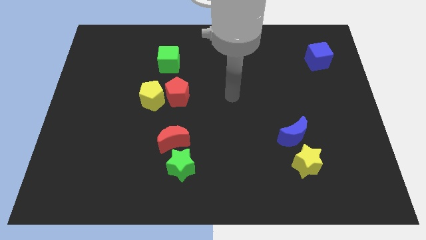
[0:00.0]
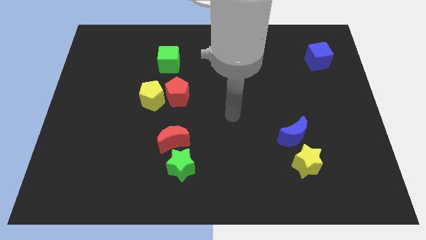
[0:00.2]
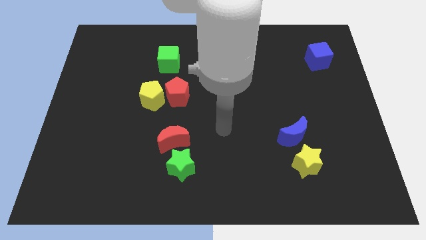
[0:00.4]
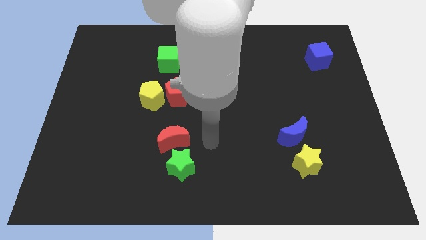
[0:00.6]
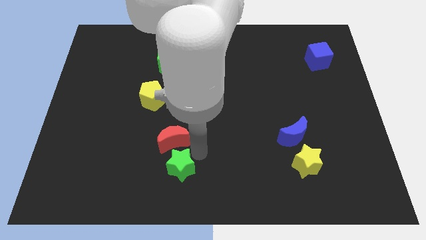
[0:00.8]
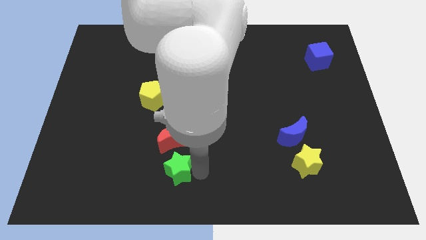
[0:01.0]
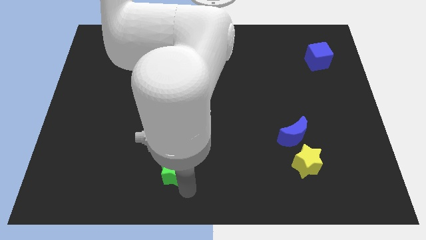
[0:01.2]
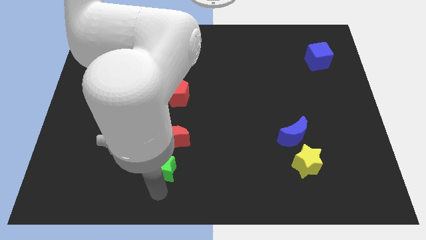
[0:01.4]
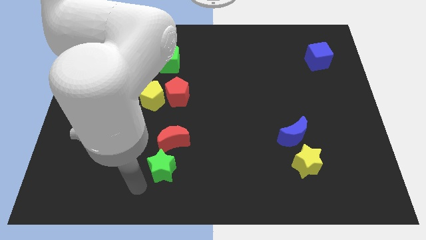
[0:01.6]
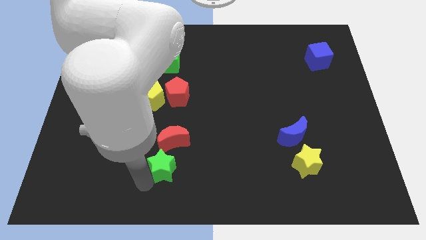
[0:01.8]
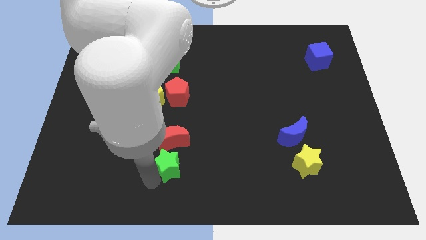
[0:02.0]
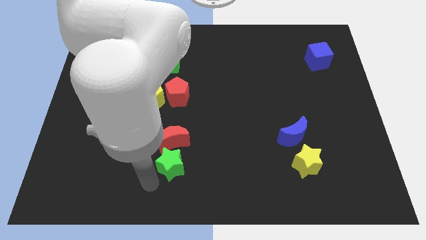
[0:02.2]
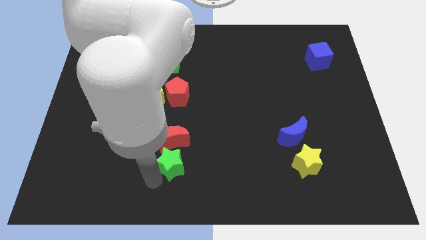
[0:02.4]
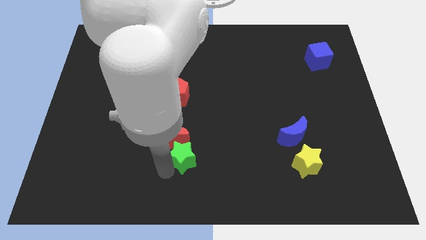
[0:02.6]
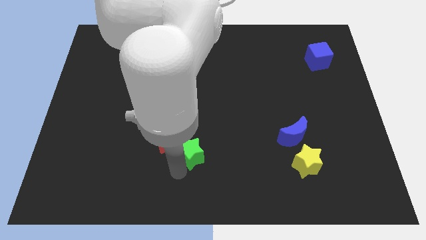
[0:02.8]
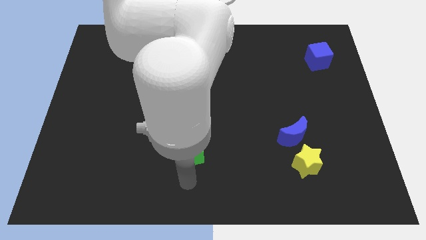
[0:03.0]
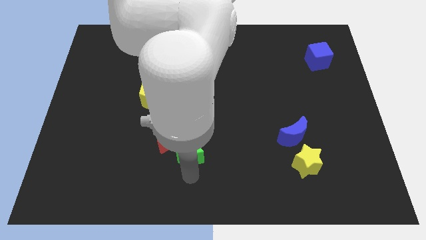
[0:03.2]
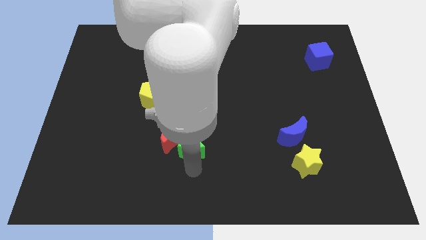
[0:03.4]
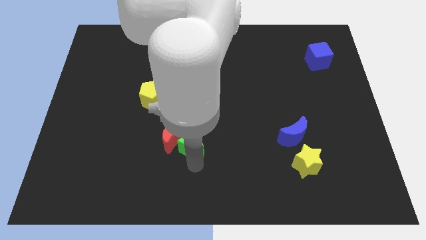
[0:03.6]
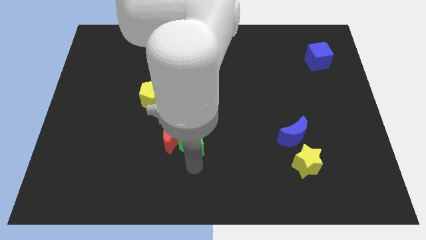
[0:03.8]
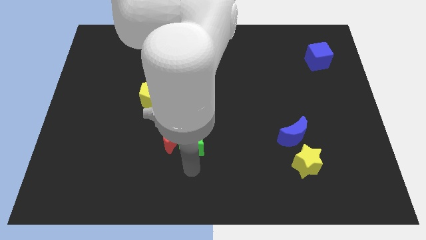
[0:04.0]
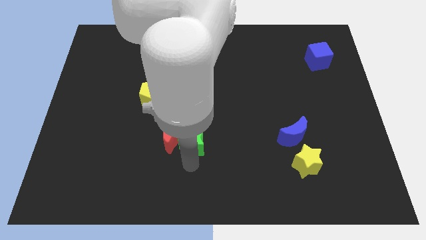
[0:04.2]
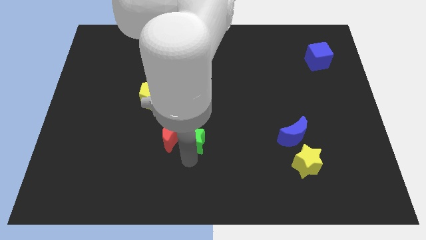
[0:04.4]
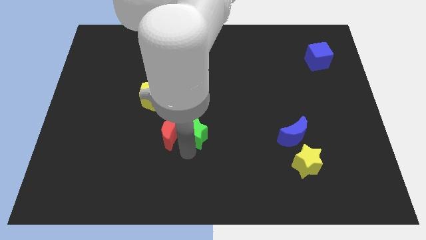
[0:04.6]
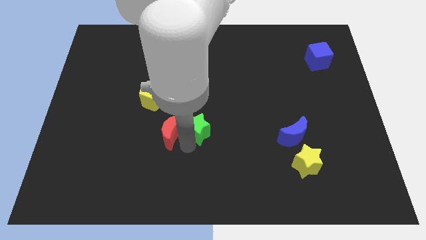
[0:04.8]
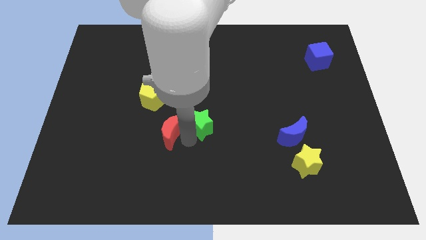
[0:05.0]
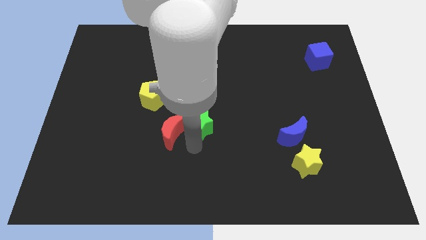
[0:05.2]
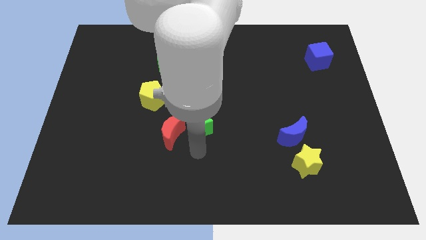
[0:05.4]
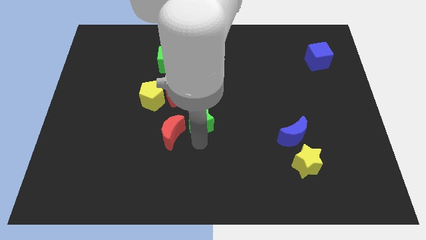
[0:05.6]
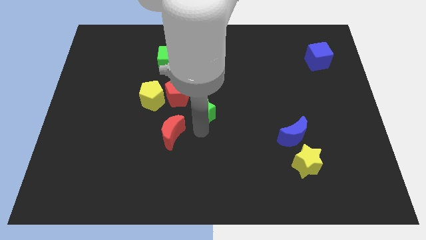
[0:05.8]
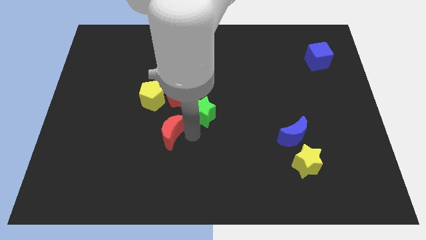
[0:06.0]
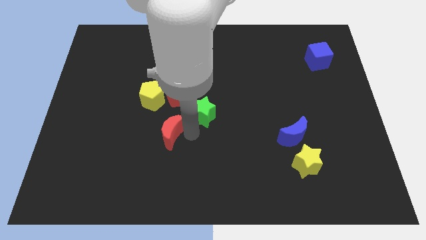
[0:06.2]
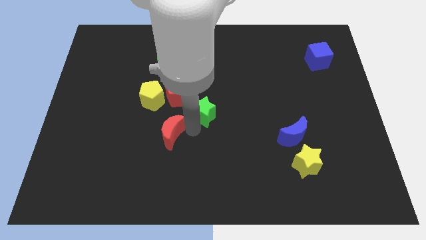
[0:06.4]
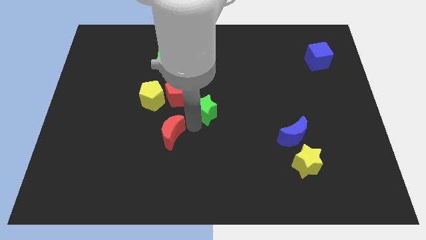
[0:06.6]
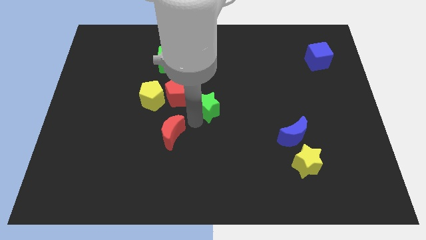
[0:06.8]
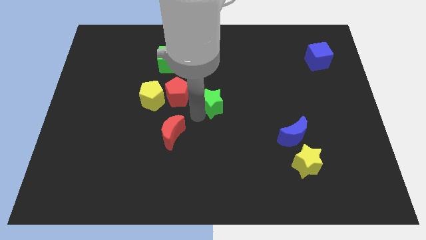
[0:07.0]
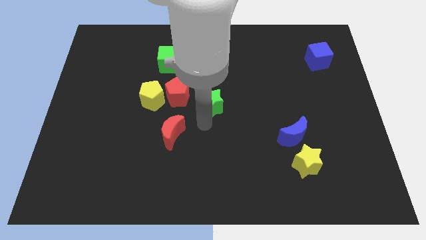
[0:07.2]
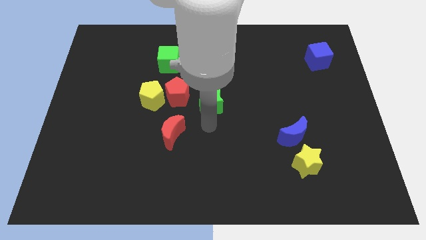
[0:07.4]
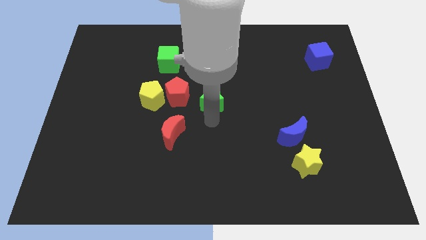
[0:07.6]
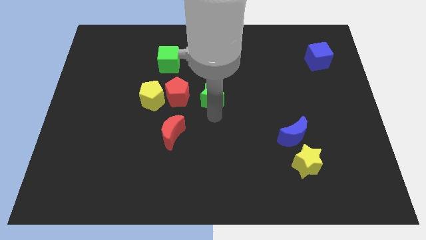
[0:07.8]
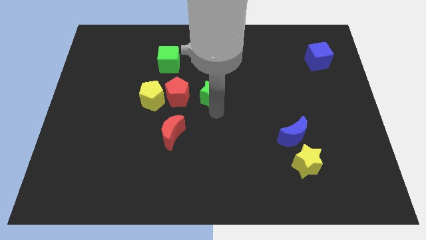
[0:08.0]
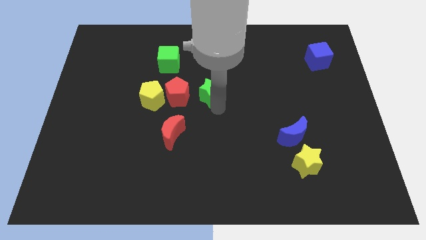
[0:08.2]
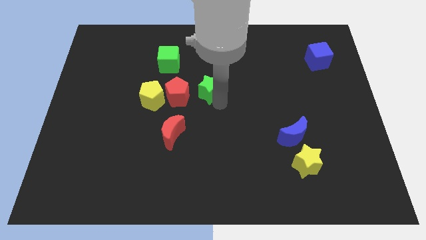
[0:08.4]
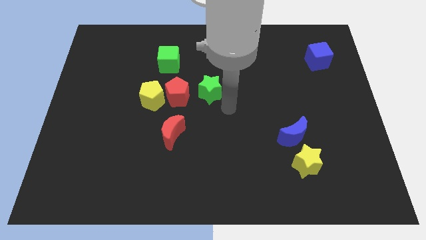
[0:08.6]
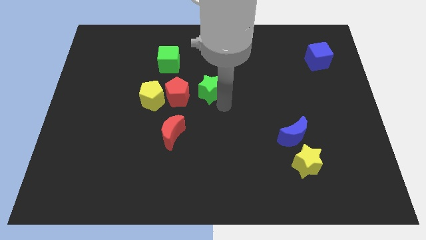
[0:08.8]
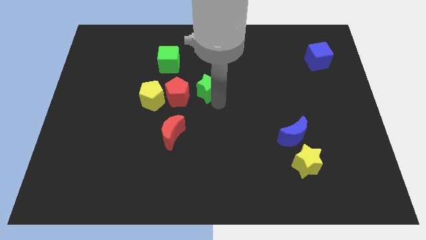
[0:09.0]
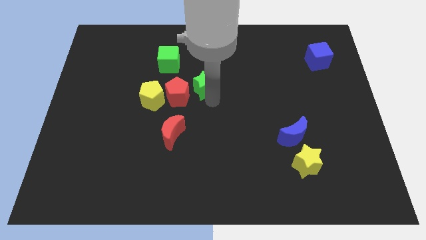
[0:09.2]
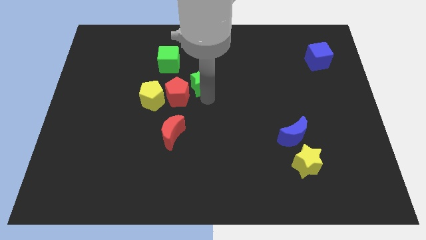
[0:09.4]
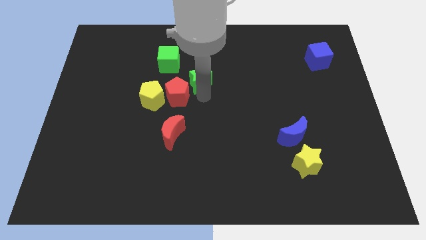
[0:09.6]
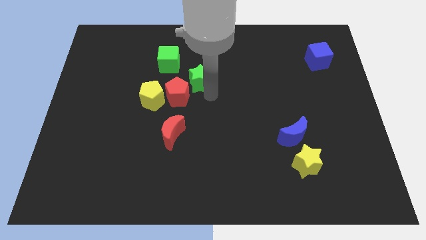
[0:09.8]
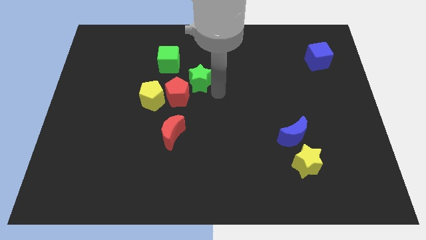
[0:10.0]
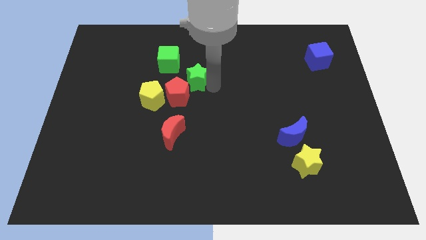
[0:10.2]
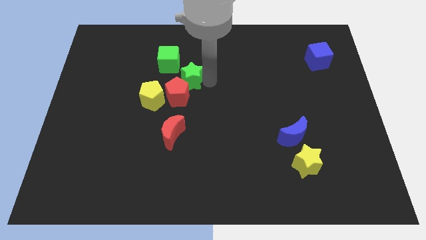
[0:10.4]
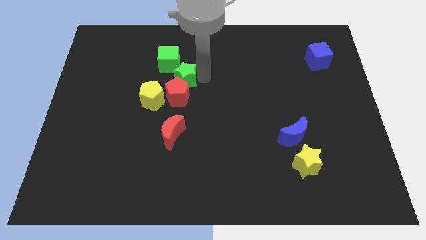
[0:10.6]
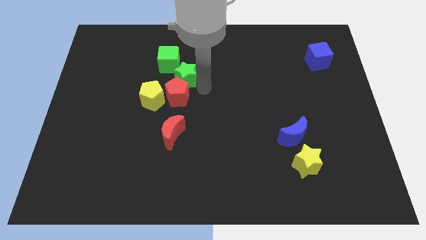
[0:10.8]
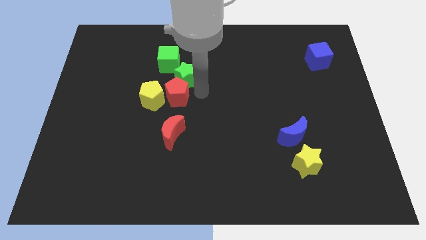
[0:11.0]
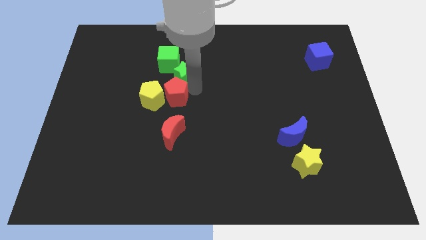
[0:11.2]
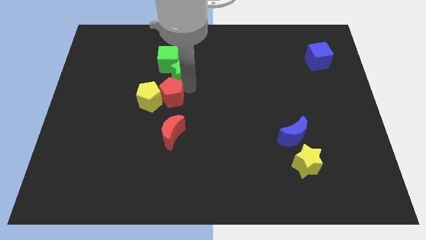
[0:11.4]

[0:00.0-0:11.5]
move the green star towards the green cube

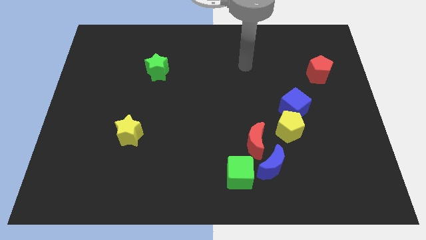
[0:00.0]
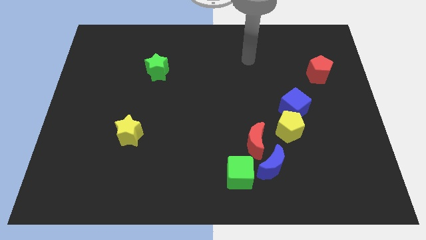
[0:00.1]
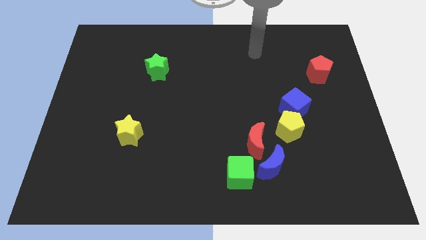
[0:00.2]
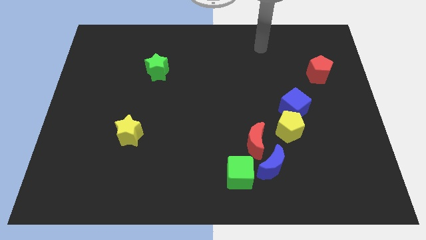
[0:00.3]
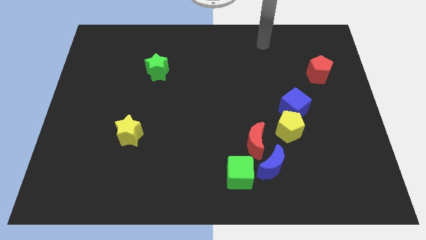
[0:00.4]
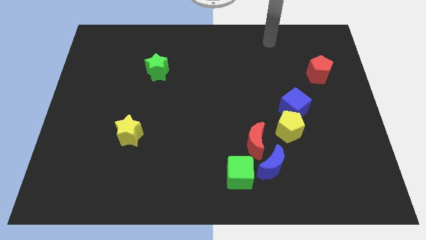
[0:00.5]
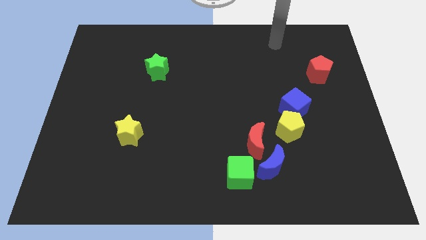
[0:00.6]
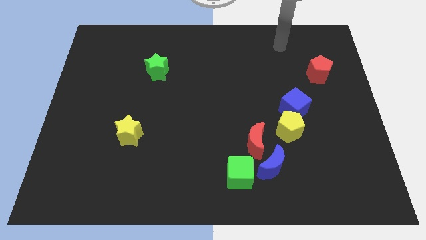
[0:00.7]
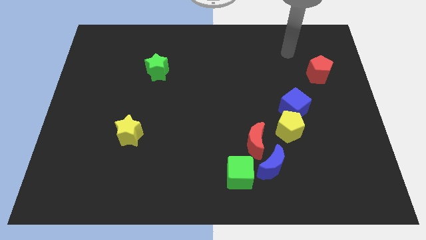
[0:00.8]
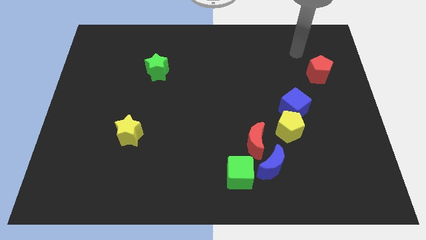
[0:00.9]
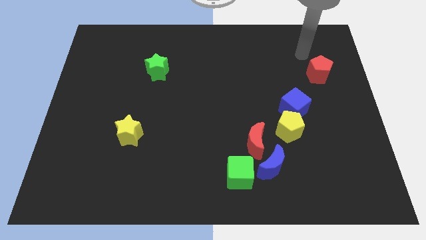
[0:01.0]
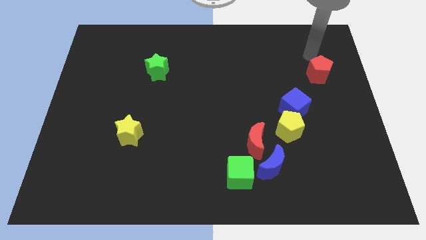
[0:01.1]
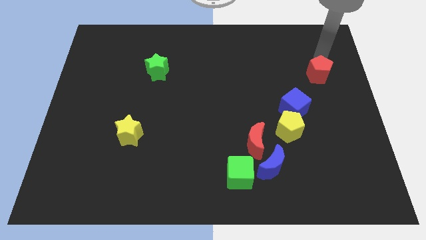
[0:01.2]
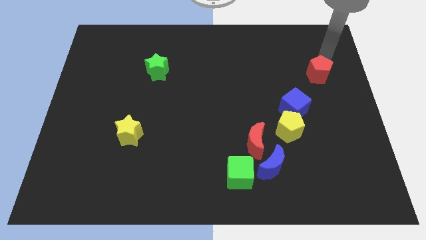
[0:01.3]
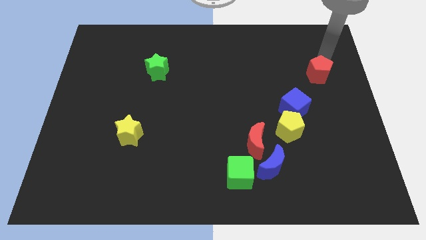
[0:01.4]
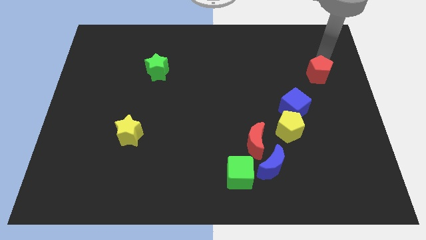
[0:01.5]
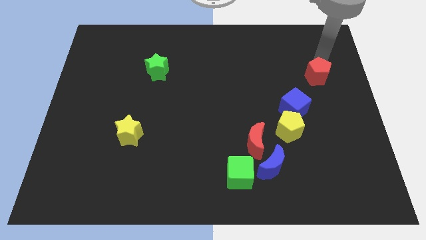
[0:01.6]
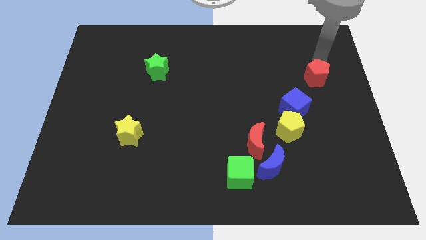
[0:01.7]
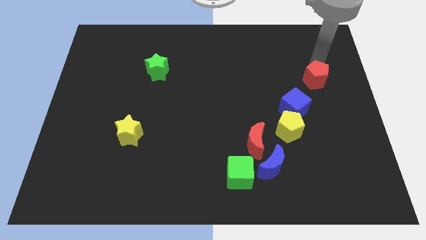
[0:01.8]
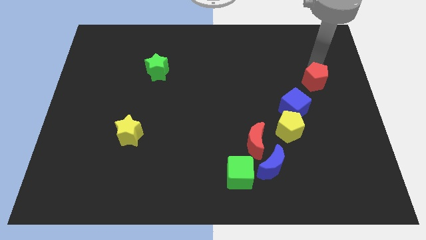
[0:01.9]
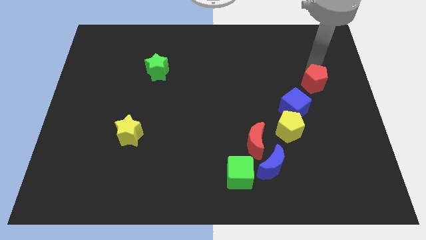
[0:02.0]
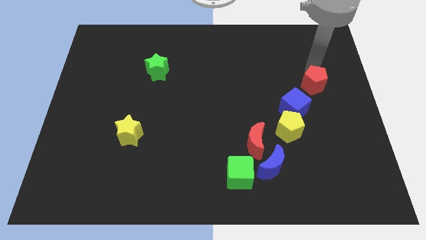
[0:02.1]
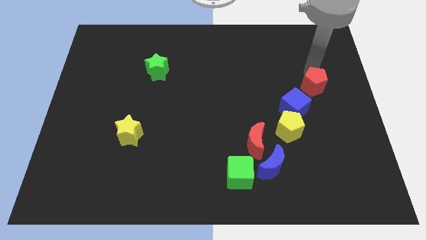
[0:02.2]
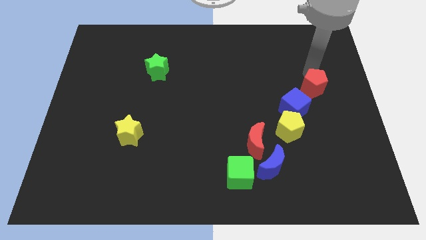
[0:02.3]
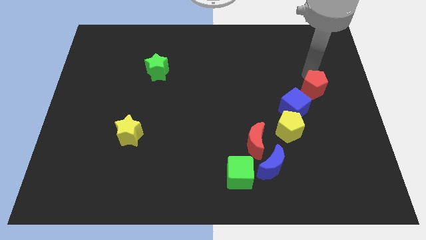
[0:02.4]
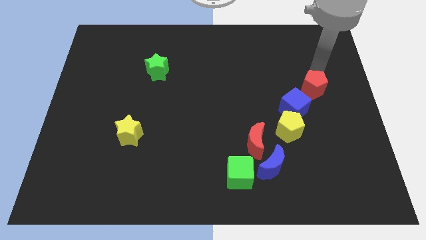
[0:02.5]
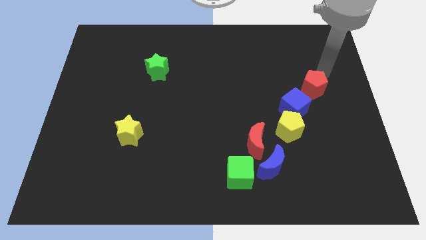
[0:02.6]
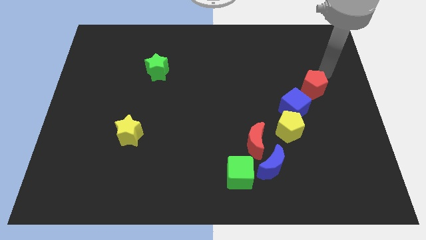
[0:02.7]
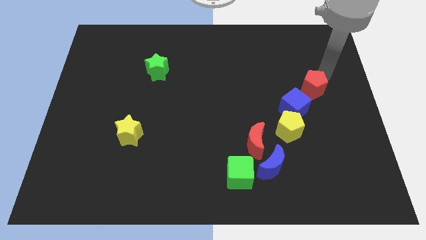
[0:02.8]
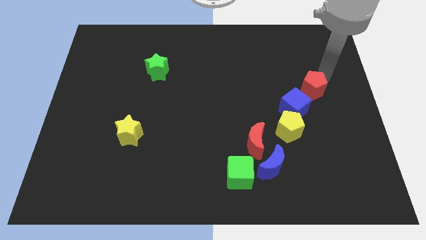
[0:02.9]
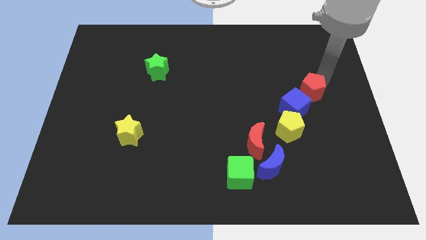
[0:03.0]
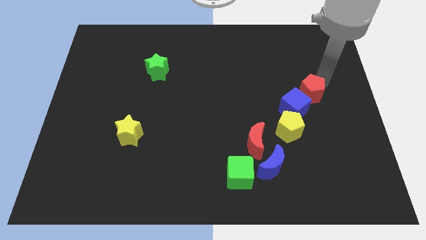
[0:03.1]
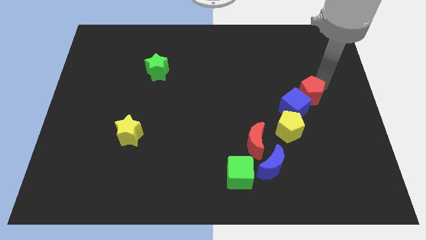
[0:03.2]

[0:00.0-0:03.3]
slide the red pentagon next to the blue cube
